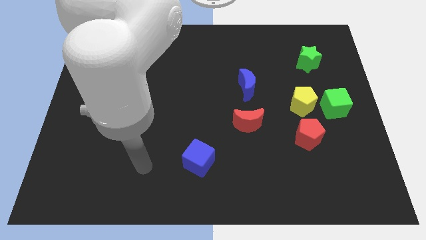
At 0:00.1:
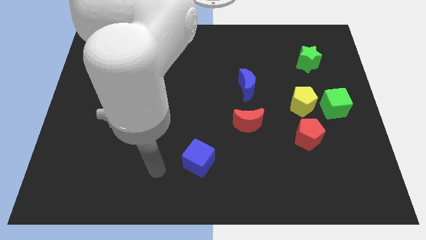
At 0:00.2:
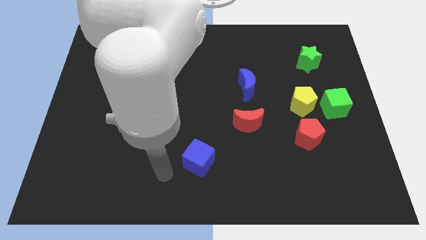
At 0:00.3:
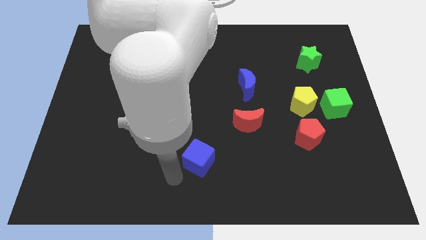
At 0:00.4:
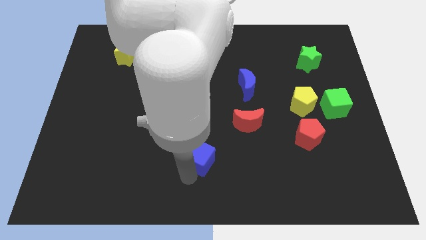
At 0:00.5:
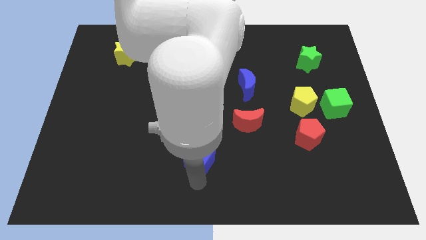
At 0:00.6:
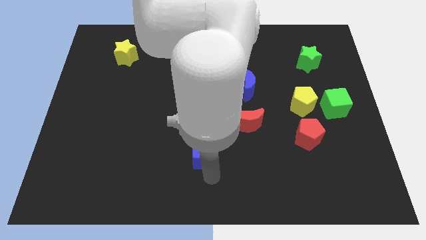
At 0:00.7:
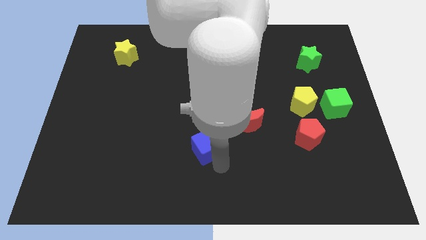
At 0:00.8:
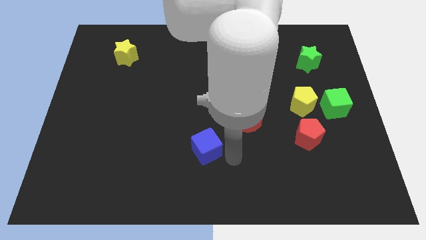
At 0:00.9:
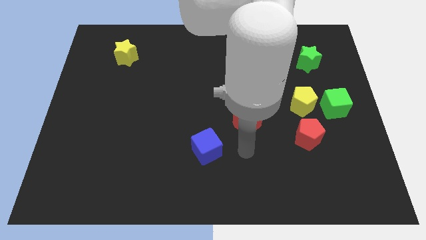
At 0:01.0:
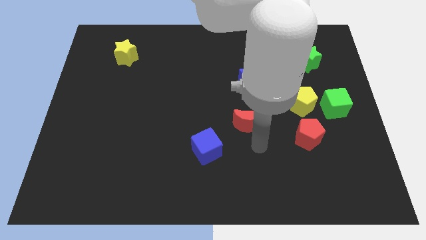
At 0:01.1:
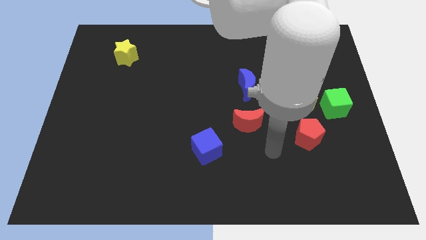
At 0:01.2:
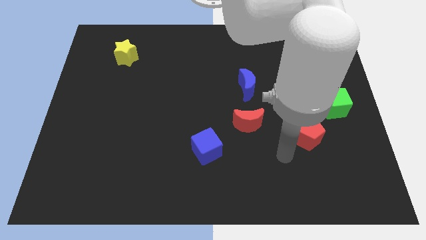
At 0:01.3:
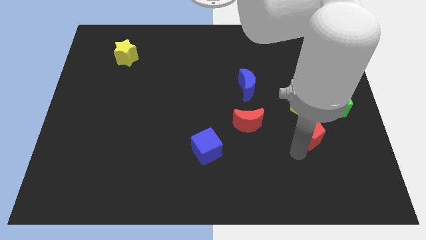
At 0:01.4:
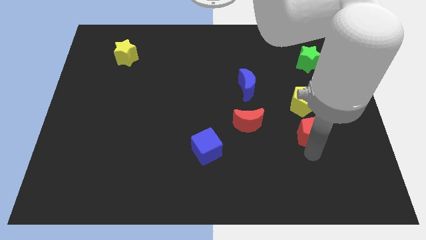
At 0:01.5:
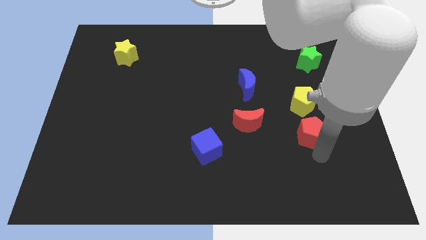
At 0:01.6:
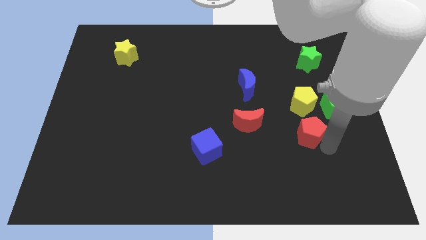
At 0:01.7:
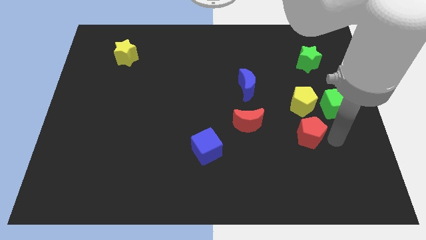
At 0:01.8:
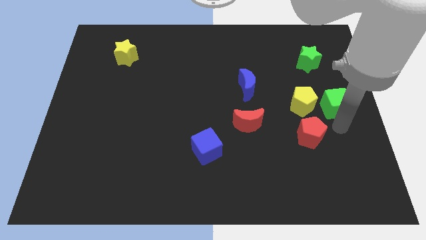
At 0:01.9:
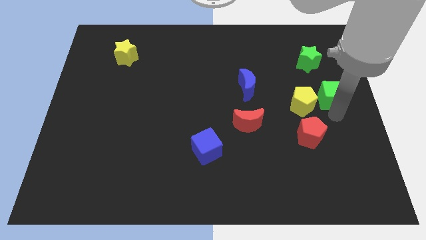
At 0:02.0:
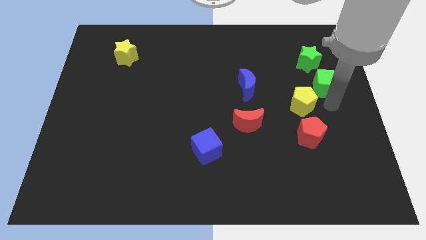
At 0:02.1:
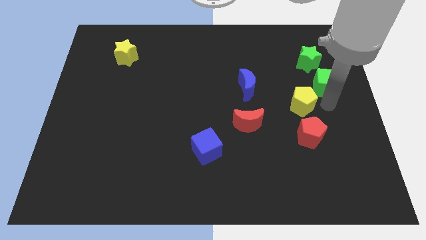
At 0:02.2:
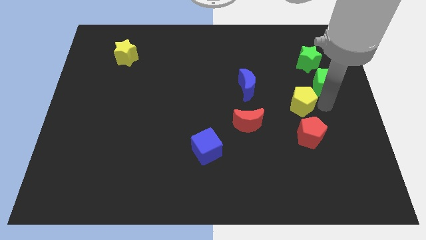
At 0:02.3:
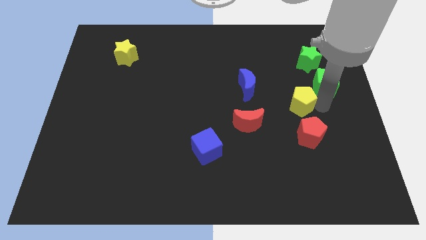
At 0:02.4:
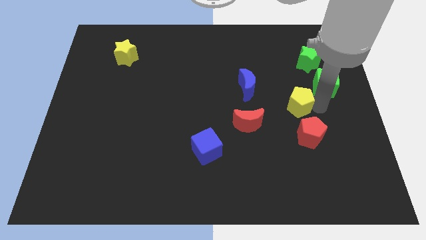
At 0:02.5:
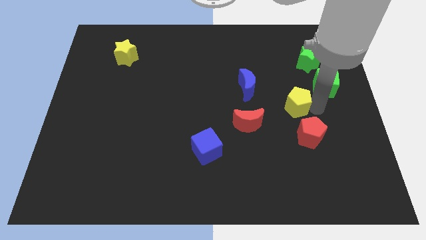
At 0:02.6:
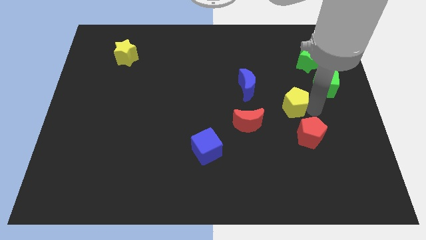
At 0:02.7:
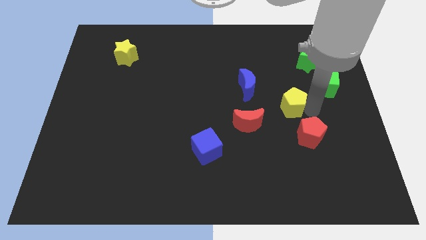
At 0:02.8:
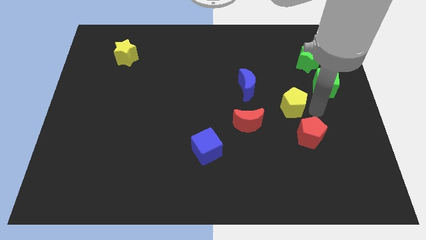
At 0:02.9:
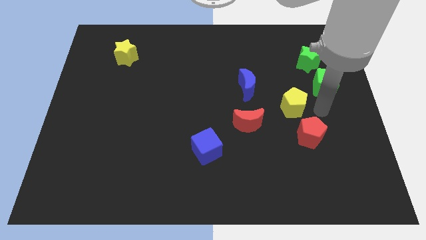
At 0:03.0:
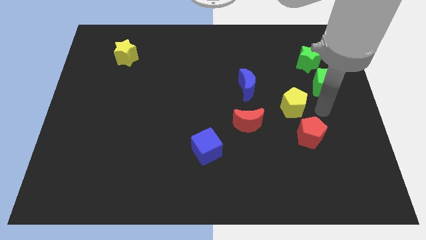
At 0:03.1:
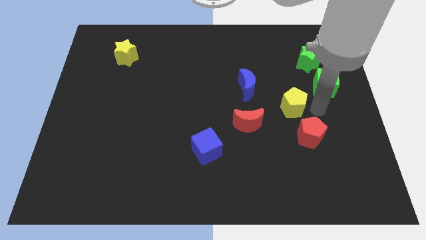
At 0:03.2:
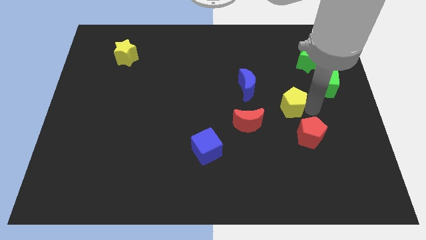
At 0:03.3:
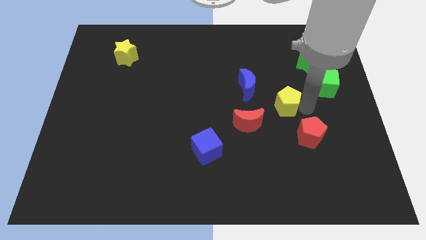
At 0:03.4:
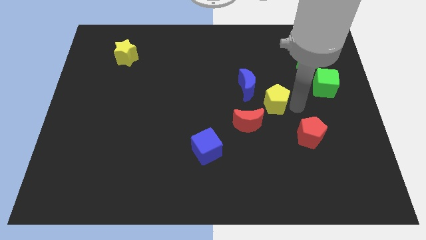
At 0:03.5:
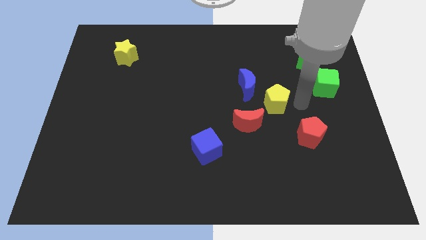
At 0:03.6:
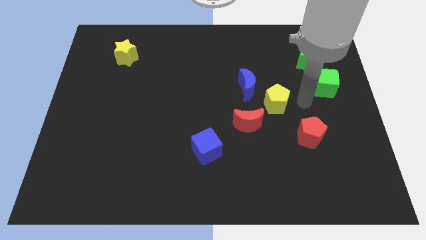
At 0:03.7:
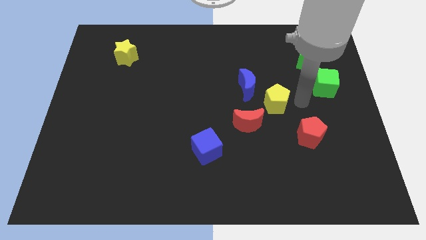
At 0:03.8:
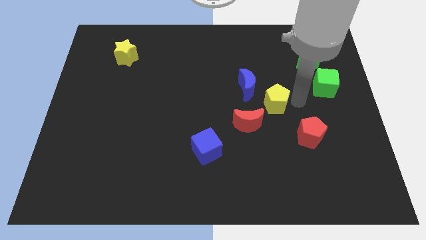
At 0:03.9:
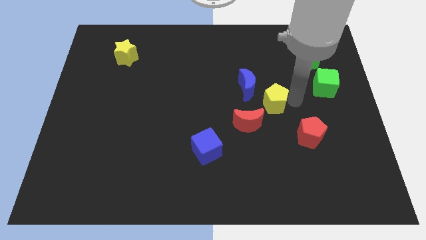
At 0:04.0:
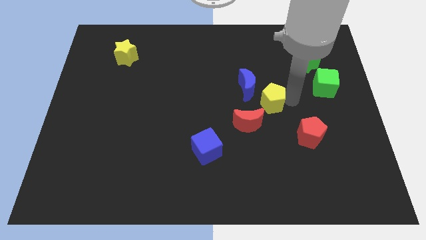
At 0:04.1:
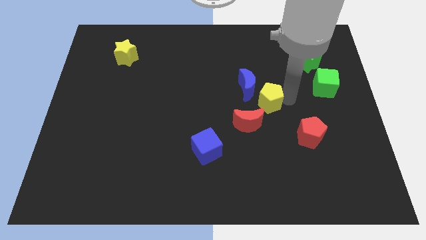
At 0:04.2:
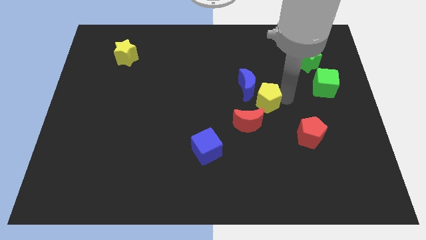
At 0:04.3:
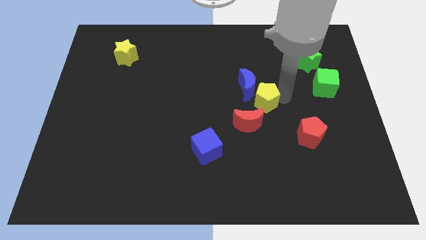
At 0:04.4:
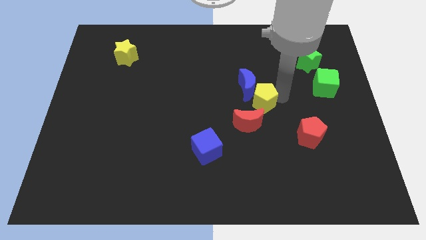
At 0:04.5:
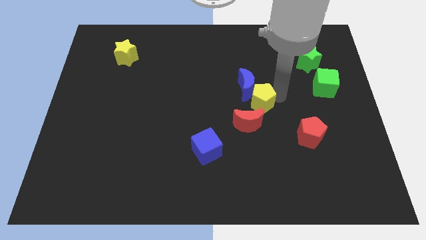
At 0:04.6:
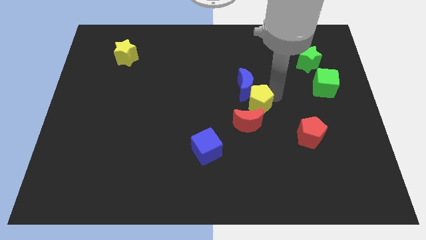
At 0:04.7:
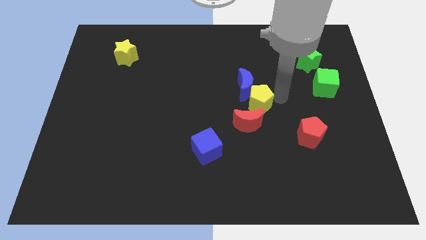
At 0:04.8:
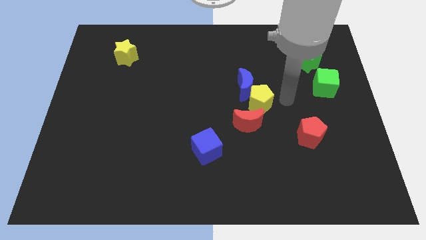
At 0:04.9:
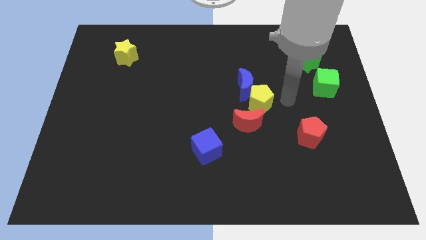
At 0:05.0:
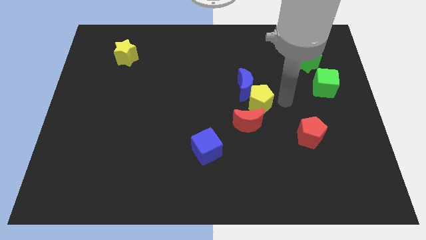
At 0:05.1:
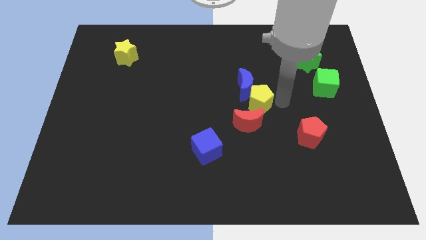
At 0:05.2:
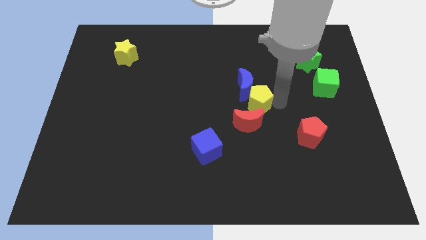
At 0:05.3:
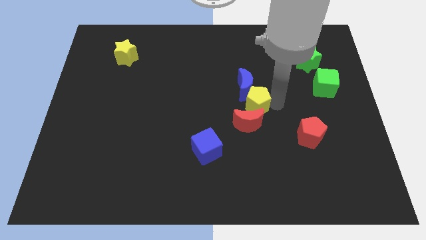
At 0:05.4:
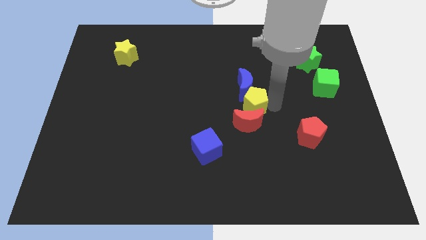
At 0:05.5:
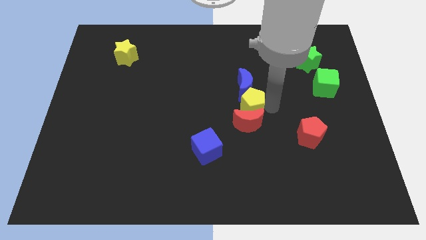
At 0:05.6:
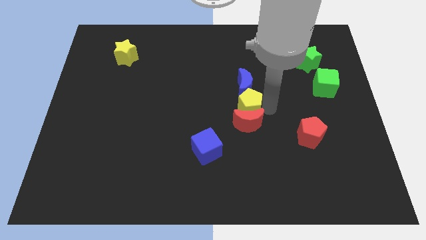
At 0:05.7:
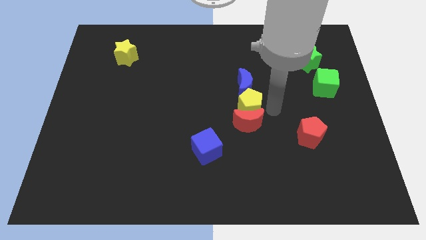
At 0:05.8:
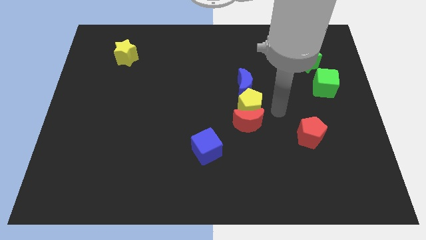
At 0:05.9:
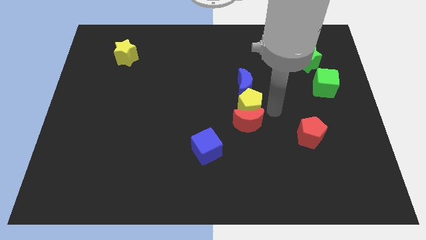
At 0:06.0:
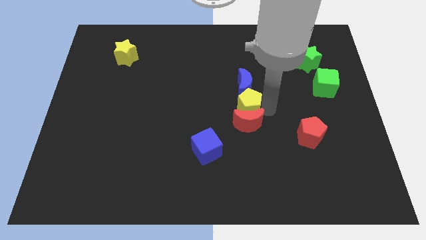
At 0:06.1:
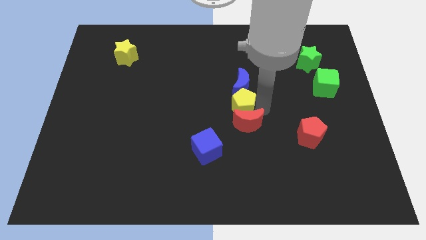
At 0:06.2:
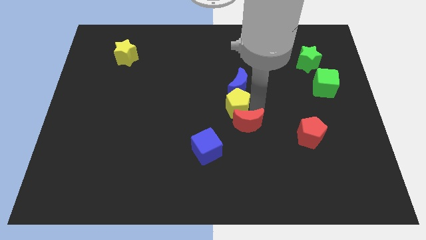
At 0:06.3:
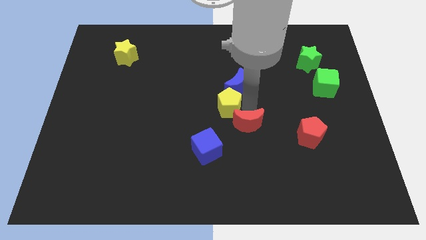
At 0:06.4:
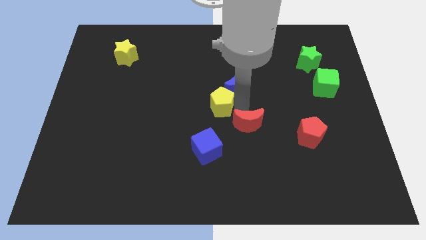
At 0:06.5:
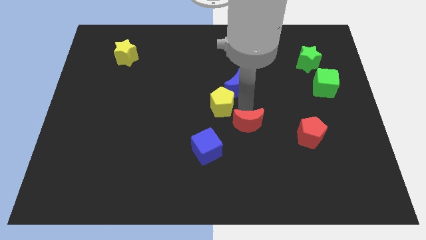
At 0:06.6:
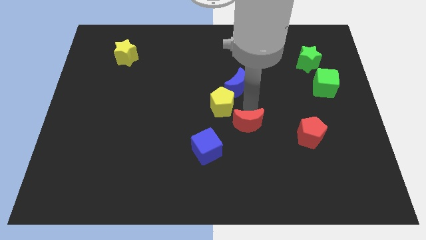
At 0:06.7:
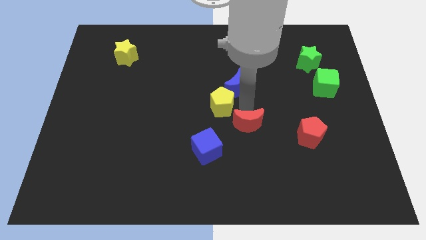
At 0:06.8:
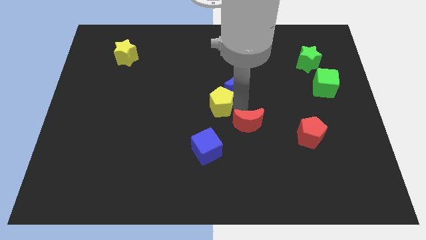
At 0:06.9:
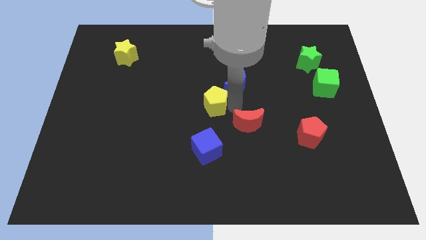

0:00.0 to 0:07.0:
push the yellow pentagon to the left

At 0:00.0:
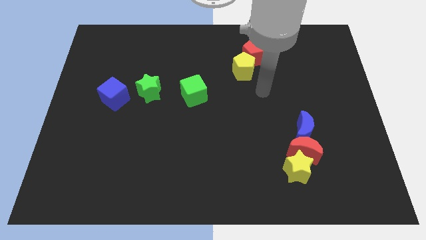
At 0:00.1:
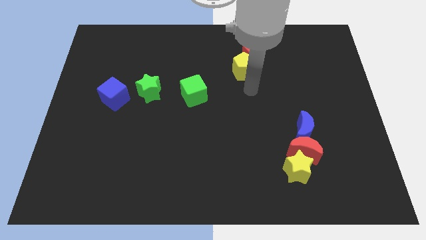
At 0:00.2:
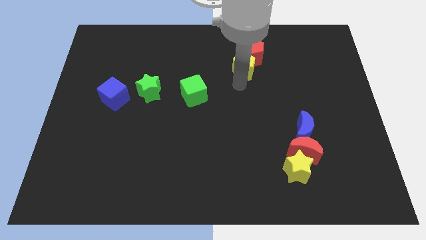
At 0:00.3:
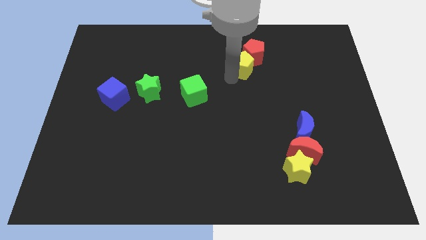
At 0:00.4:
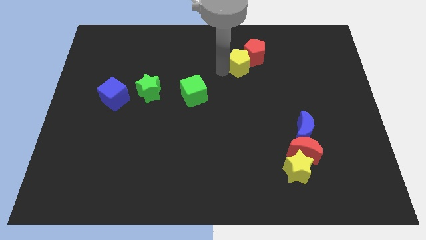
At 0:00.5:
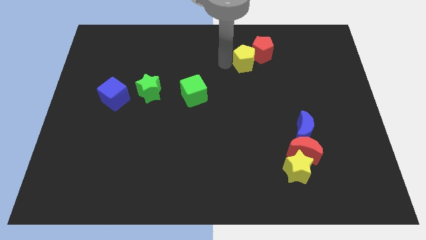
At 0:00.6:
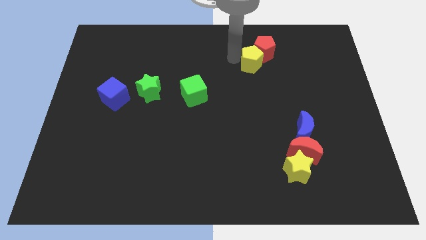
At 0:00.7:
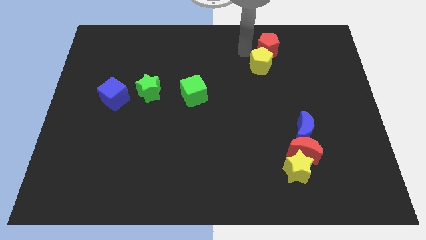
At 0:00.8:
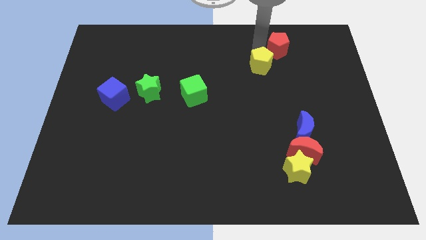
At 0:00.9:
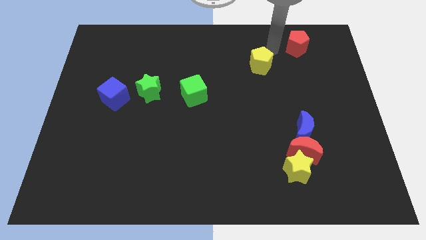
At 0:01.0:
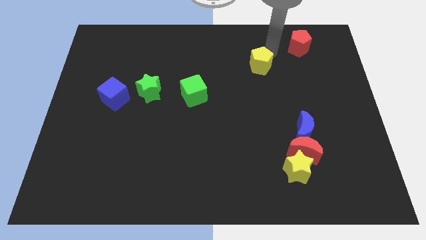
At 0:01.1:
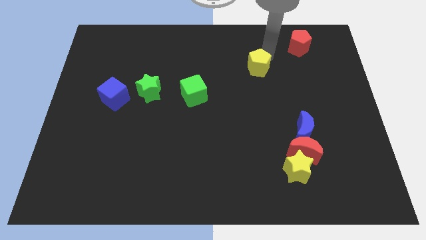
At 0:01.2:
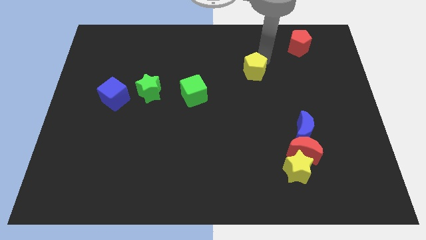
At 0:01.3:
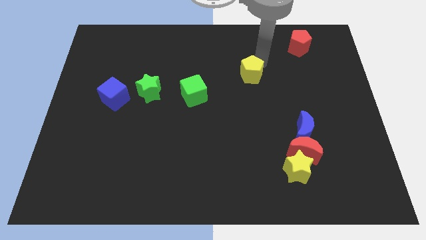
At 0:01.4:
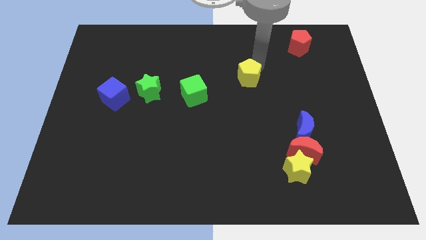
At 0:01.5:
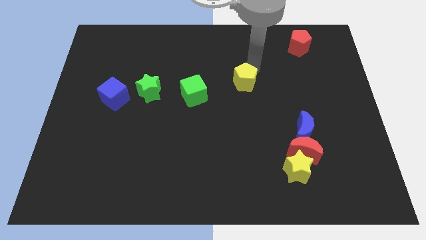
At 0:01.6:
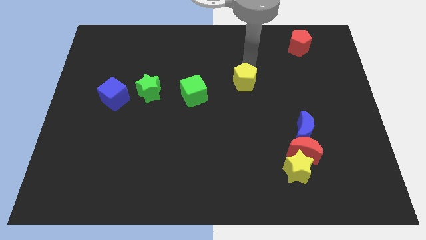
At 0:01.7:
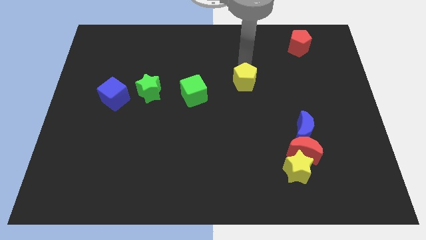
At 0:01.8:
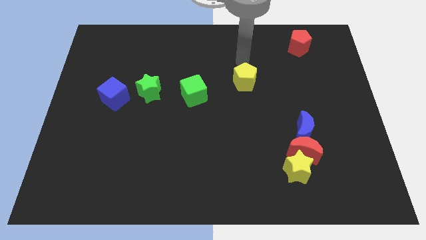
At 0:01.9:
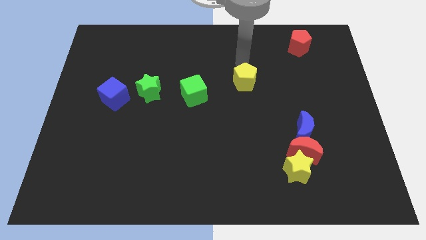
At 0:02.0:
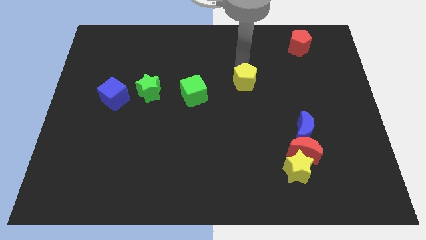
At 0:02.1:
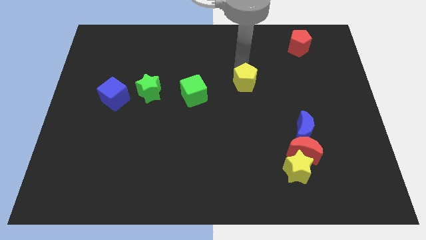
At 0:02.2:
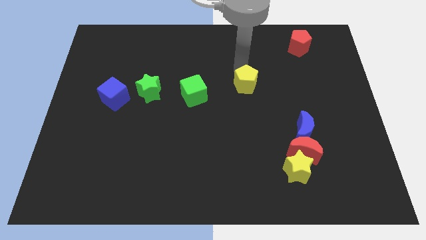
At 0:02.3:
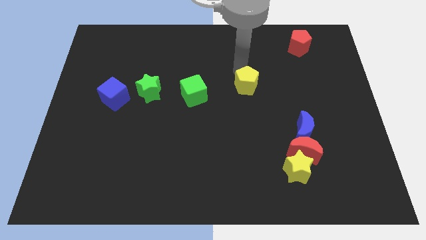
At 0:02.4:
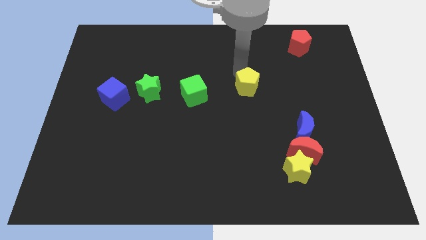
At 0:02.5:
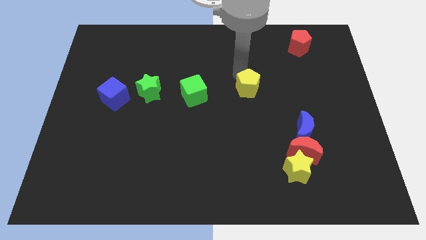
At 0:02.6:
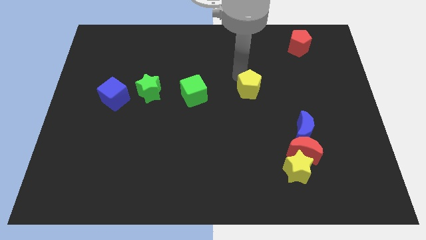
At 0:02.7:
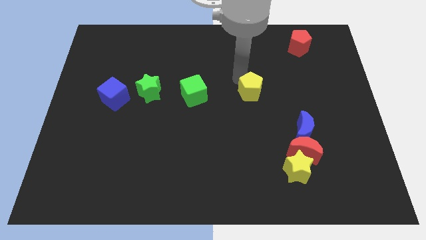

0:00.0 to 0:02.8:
push the yellow pentagon downwards slightly
